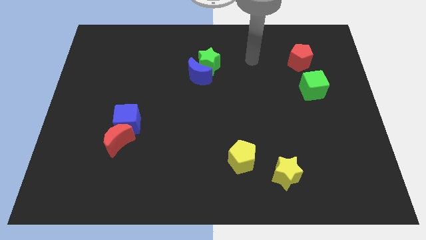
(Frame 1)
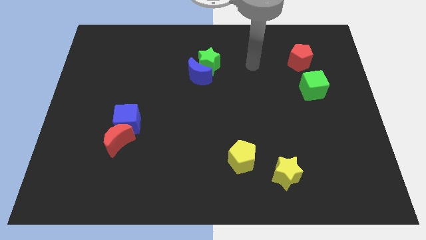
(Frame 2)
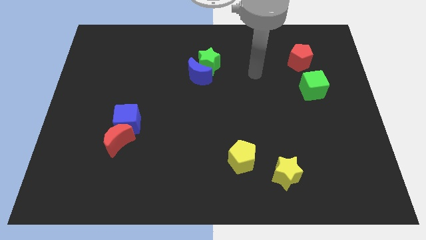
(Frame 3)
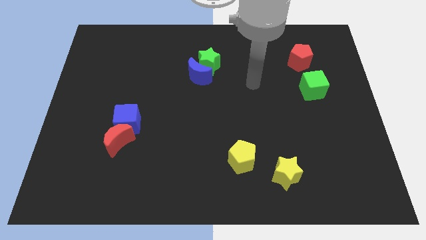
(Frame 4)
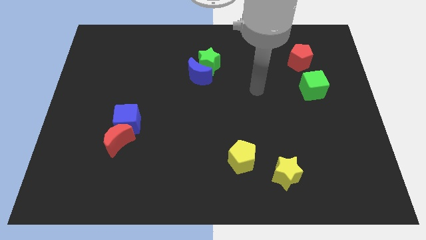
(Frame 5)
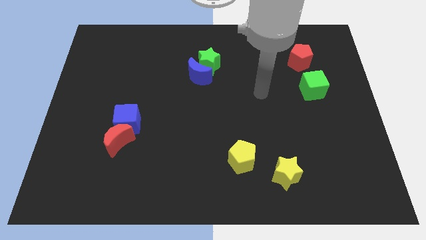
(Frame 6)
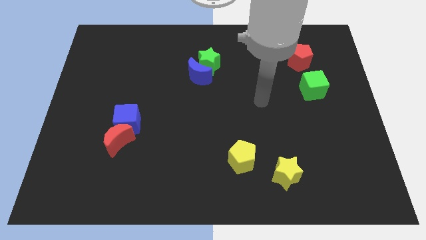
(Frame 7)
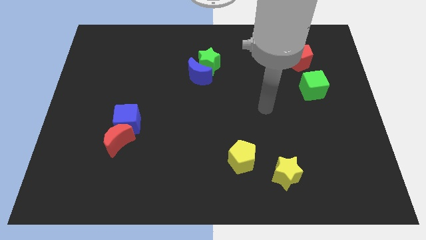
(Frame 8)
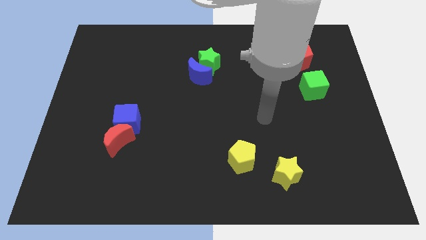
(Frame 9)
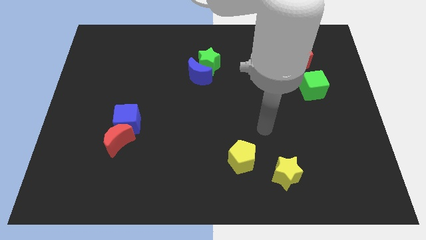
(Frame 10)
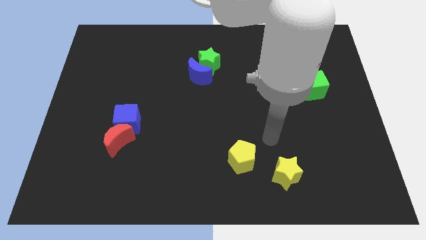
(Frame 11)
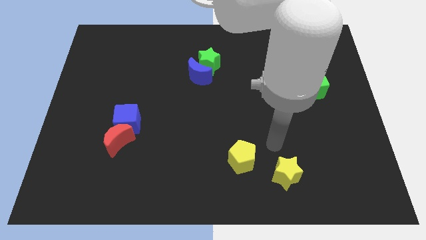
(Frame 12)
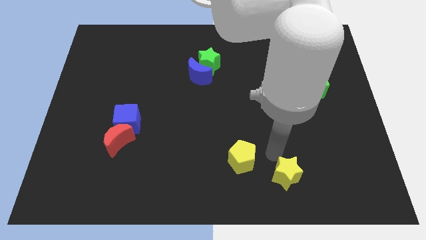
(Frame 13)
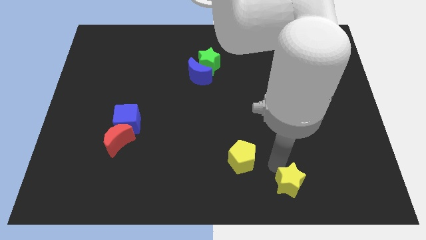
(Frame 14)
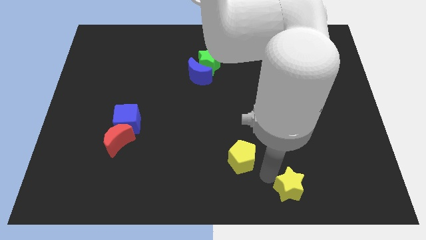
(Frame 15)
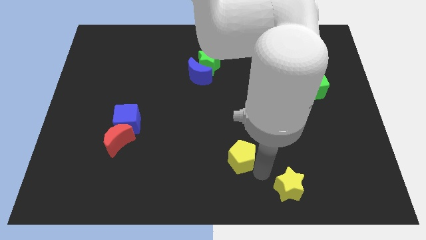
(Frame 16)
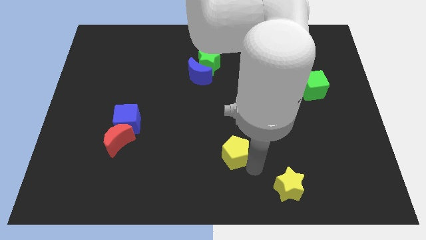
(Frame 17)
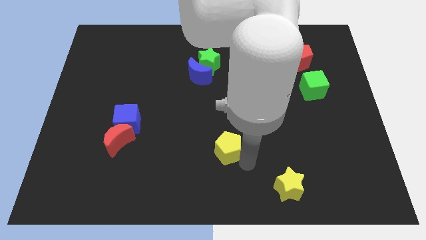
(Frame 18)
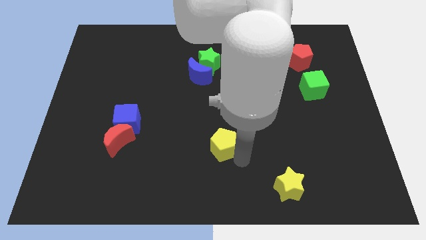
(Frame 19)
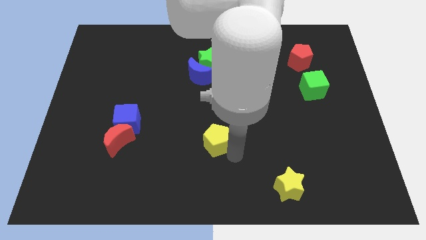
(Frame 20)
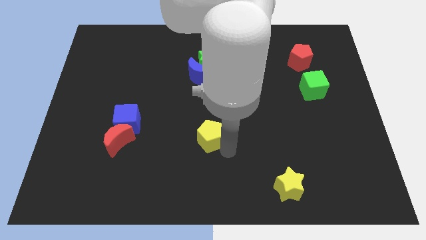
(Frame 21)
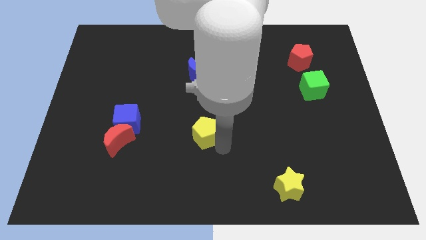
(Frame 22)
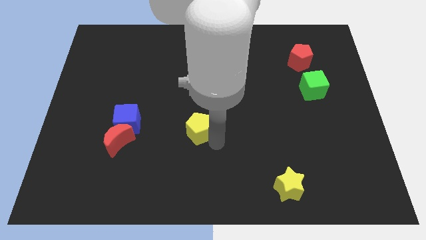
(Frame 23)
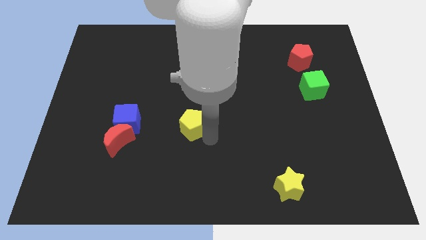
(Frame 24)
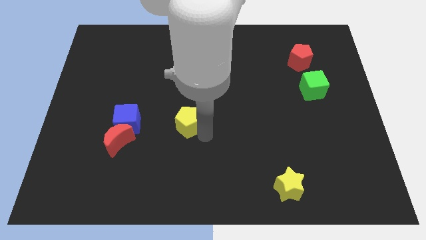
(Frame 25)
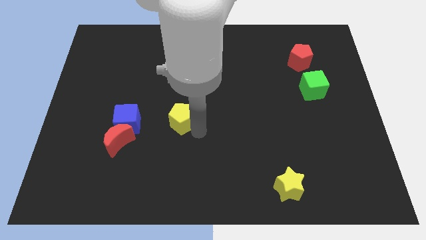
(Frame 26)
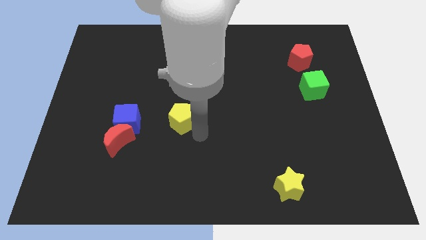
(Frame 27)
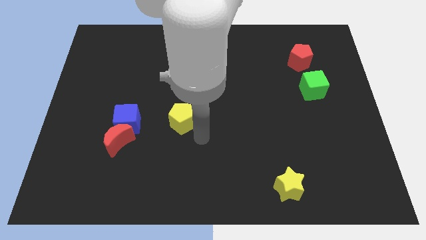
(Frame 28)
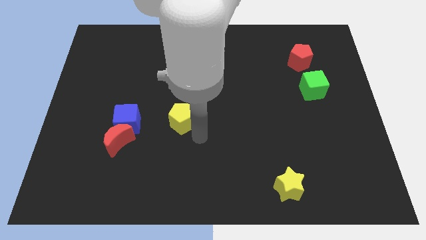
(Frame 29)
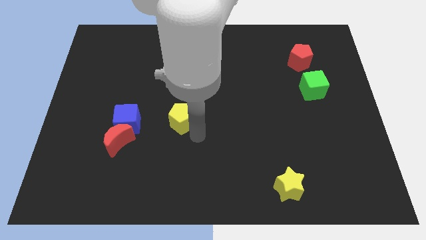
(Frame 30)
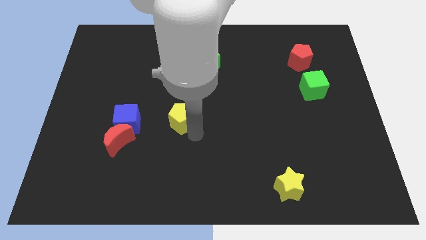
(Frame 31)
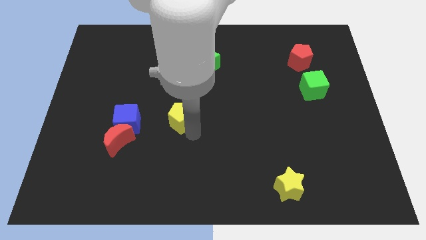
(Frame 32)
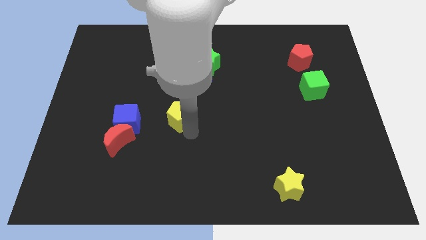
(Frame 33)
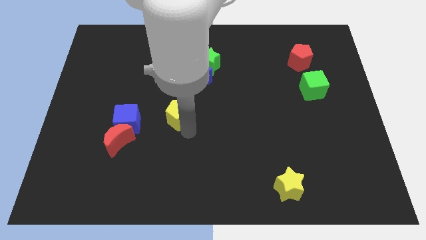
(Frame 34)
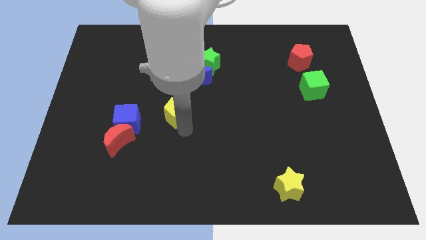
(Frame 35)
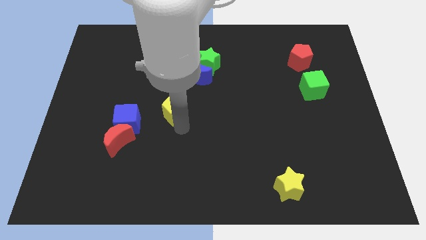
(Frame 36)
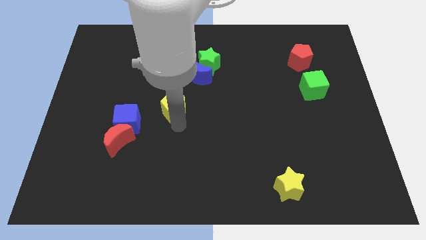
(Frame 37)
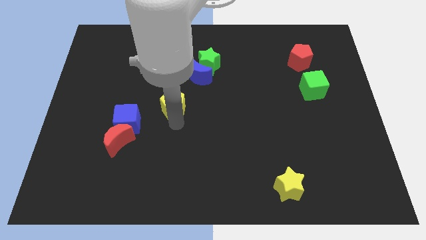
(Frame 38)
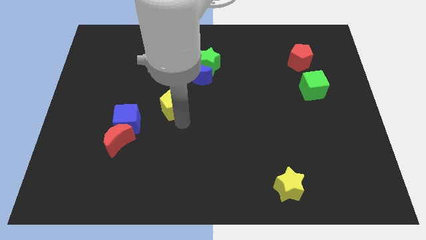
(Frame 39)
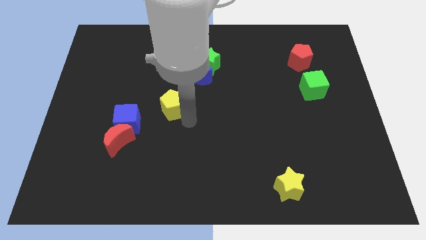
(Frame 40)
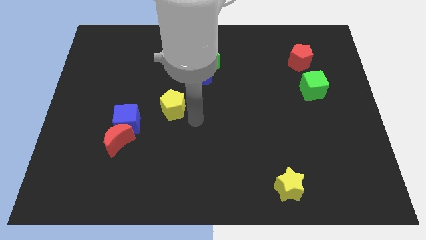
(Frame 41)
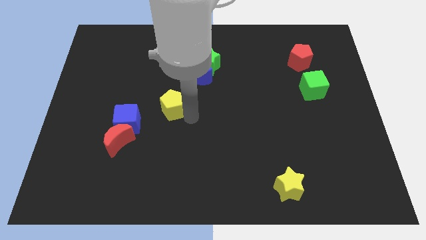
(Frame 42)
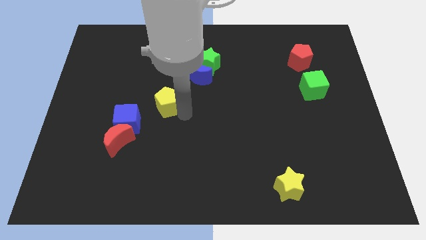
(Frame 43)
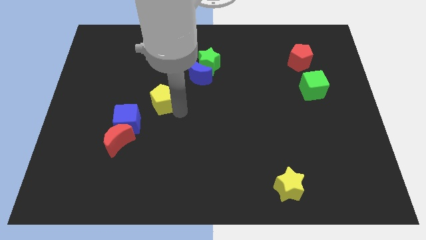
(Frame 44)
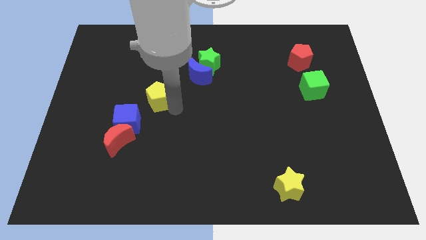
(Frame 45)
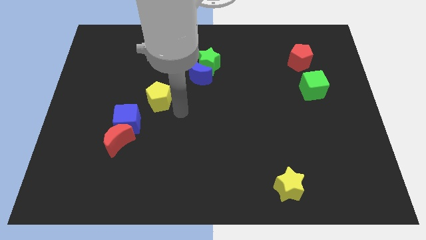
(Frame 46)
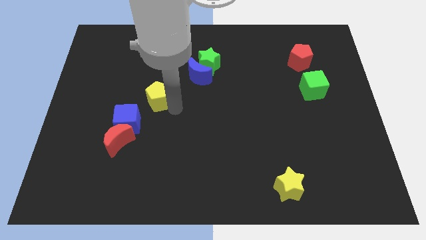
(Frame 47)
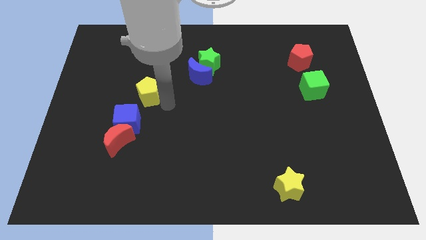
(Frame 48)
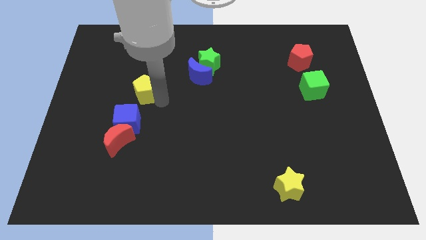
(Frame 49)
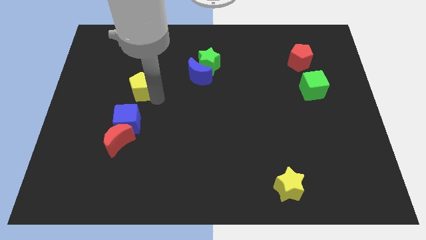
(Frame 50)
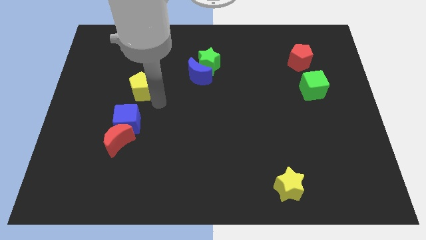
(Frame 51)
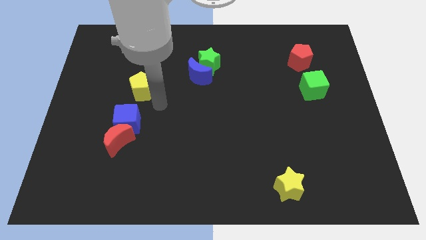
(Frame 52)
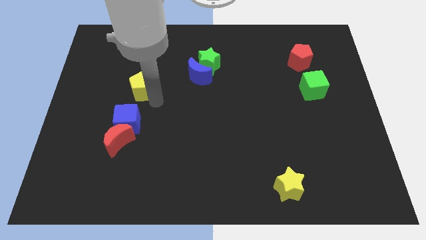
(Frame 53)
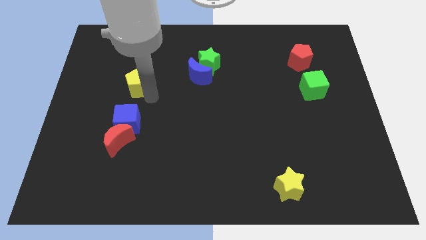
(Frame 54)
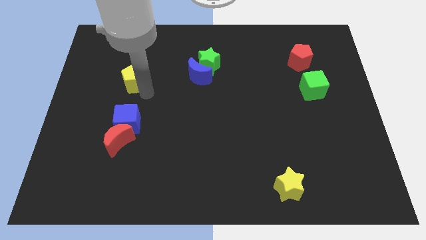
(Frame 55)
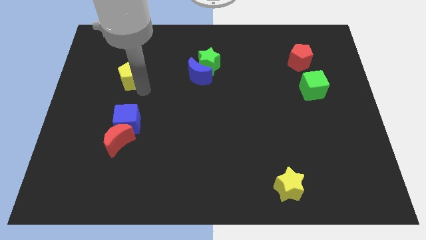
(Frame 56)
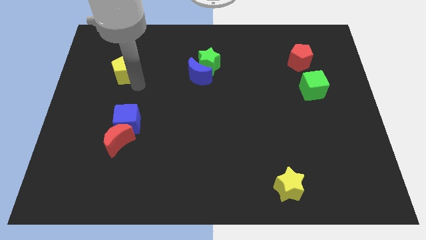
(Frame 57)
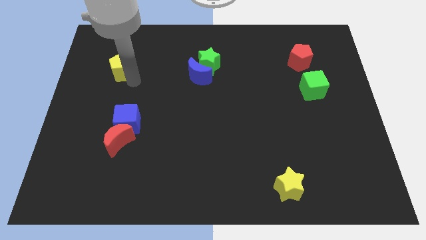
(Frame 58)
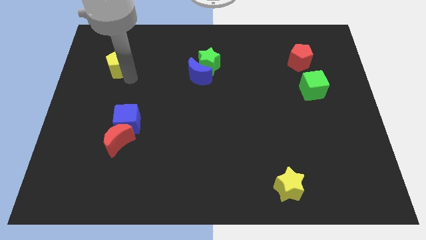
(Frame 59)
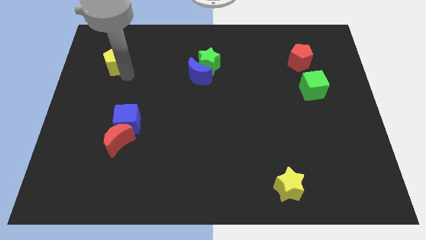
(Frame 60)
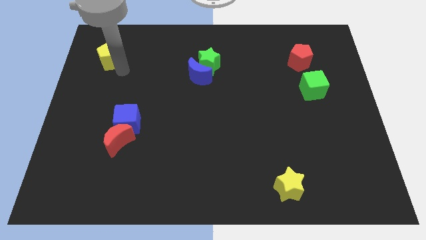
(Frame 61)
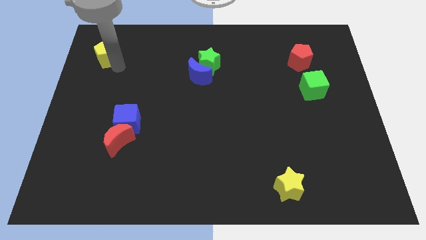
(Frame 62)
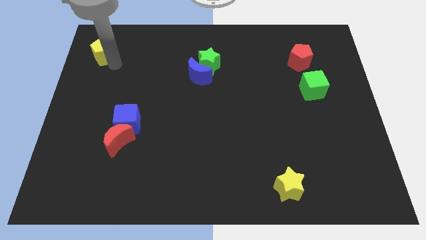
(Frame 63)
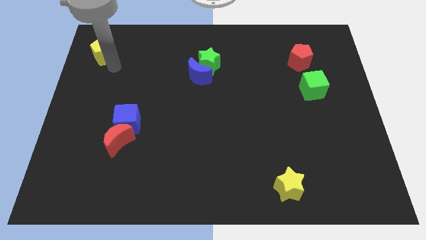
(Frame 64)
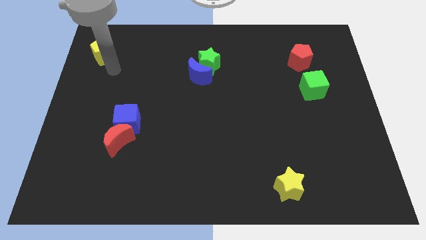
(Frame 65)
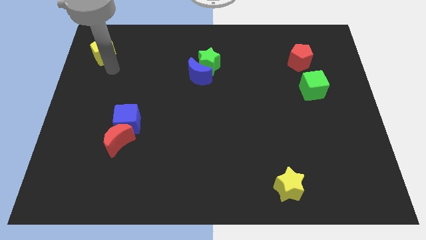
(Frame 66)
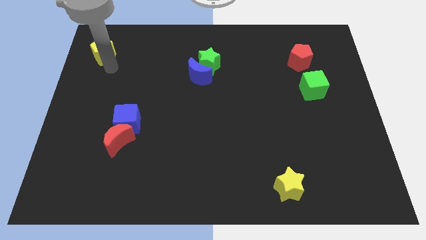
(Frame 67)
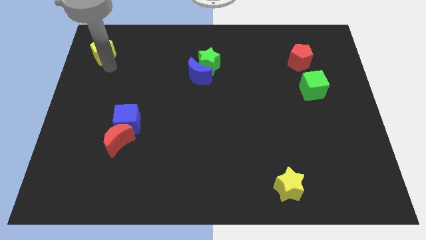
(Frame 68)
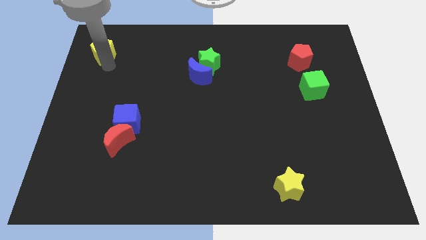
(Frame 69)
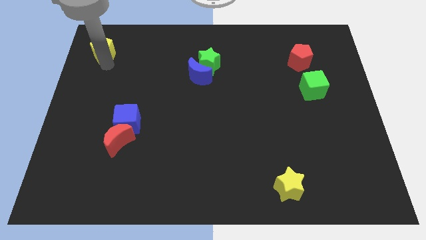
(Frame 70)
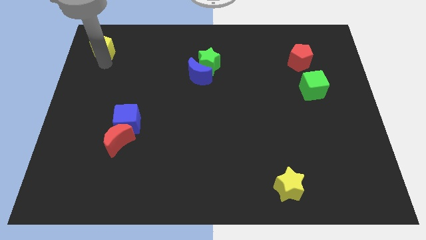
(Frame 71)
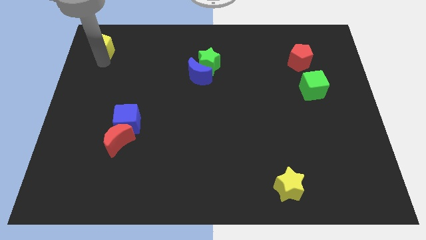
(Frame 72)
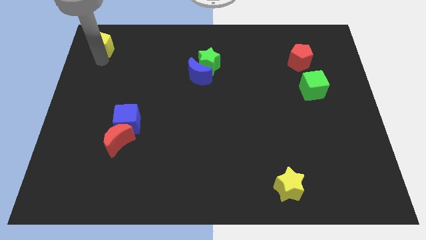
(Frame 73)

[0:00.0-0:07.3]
push the yellow pentagon to the top left of the board
